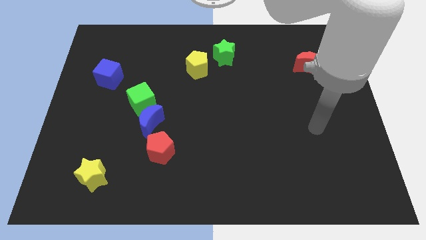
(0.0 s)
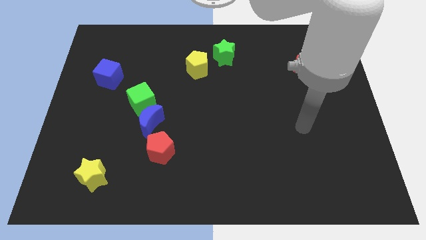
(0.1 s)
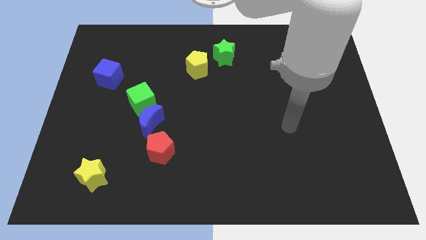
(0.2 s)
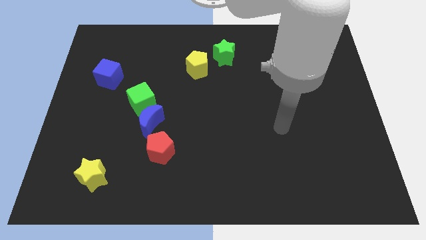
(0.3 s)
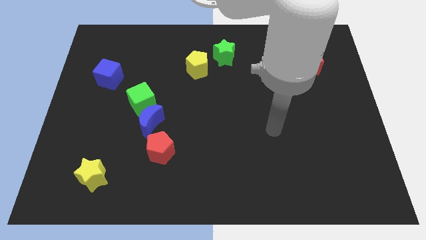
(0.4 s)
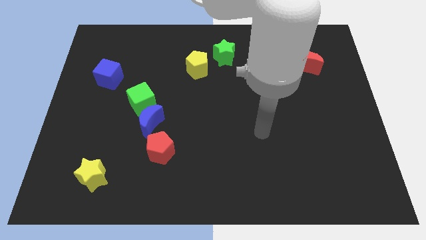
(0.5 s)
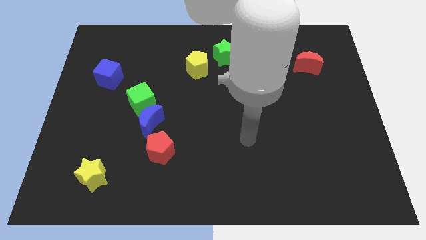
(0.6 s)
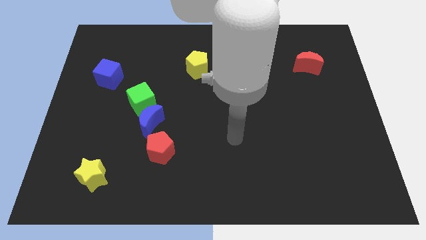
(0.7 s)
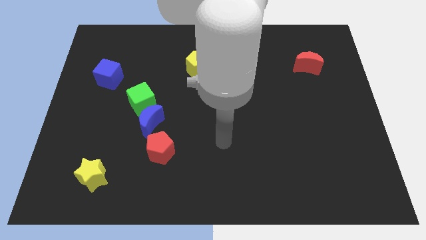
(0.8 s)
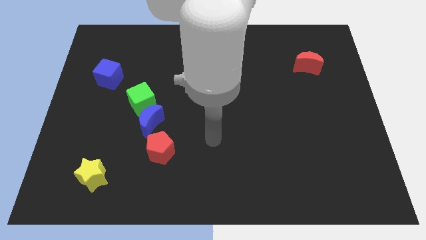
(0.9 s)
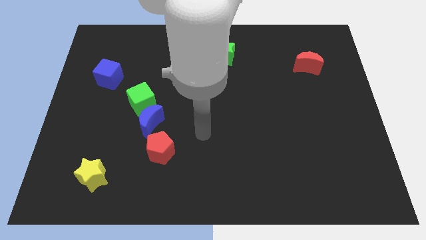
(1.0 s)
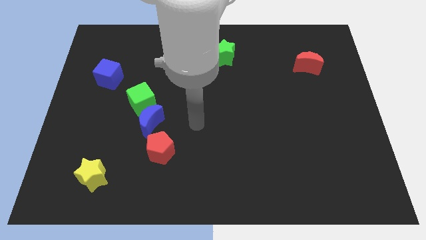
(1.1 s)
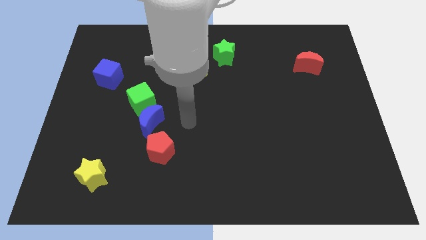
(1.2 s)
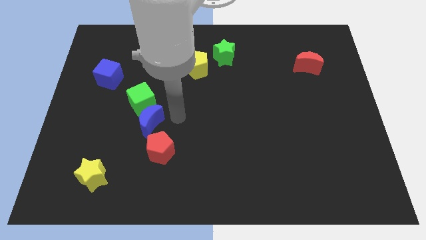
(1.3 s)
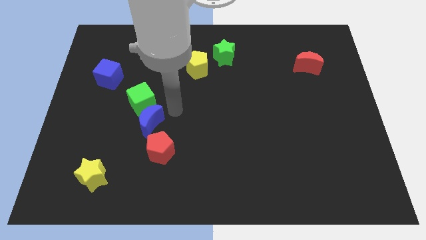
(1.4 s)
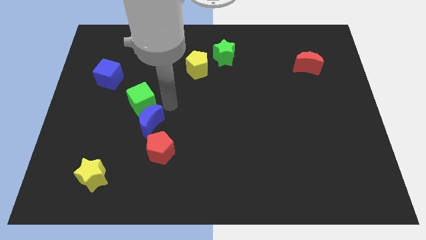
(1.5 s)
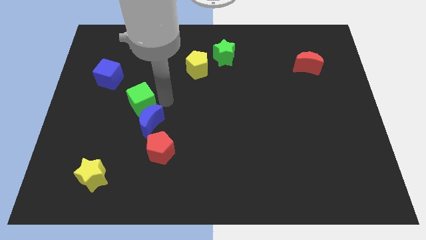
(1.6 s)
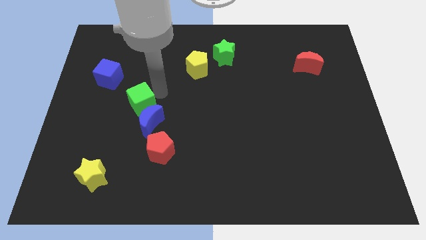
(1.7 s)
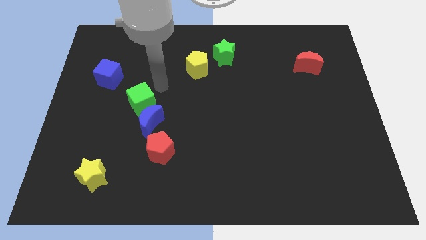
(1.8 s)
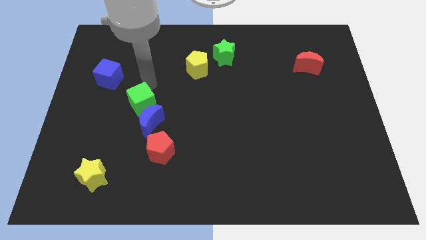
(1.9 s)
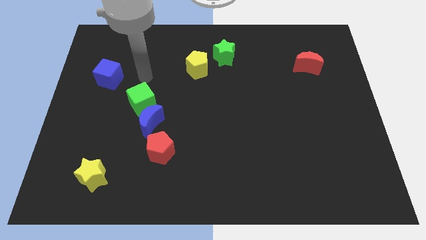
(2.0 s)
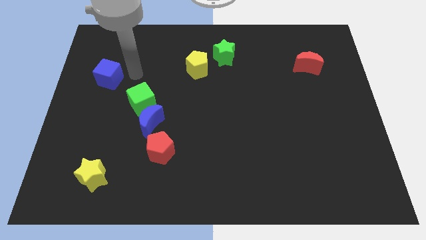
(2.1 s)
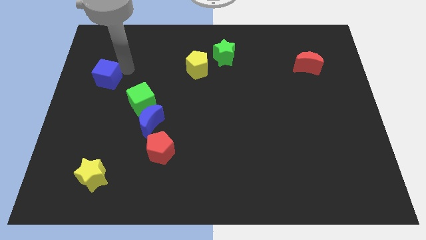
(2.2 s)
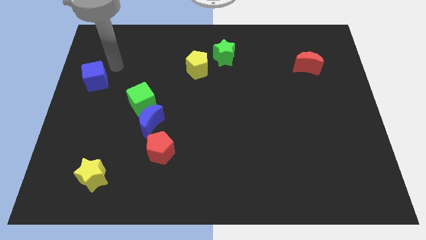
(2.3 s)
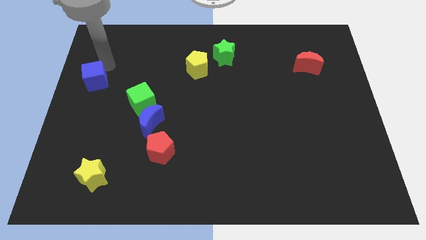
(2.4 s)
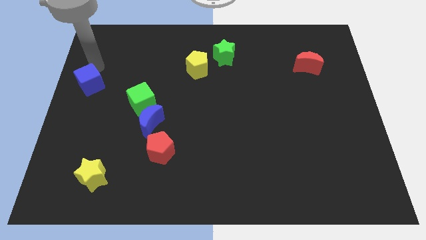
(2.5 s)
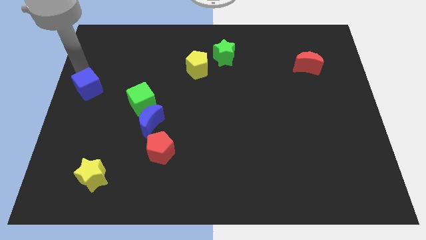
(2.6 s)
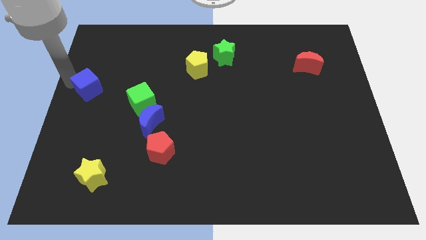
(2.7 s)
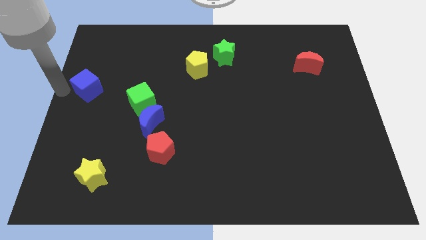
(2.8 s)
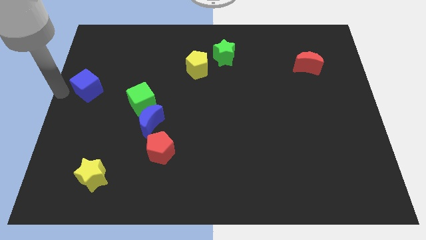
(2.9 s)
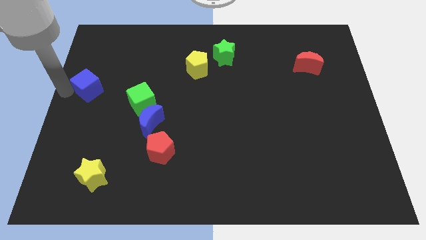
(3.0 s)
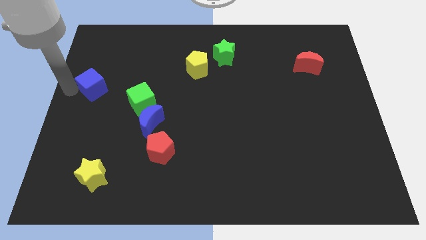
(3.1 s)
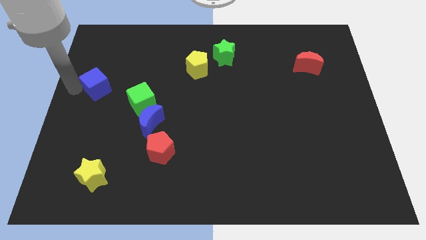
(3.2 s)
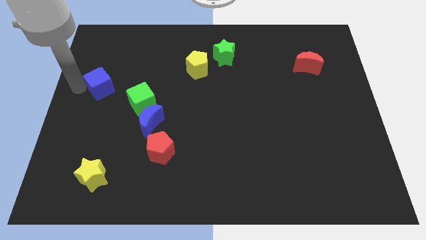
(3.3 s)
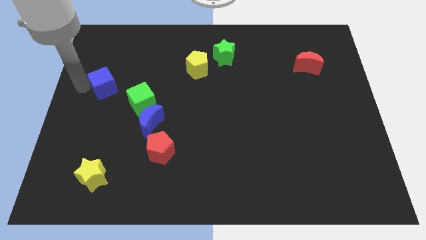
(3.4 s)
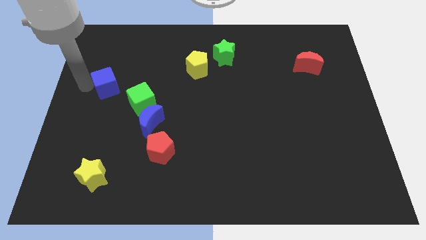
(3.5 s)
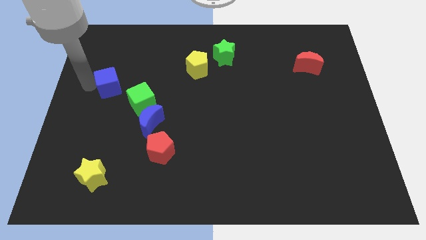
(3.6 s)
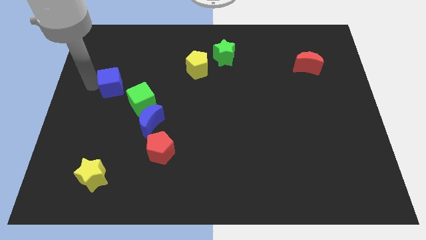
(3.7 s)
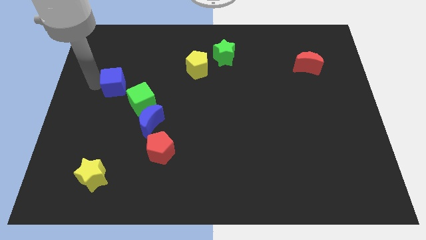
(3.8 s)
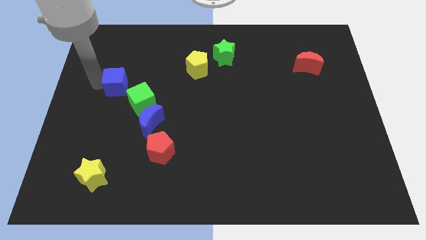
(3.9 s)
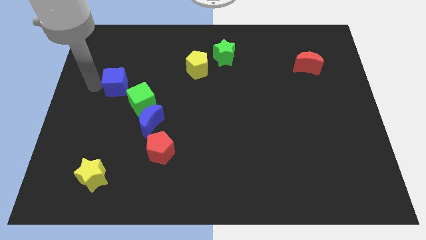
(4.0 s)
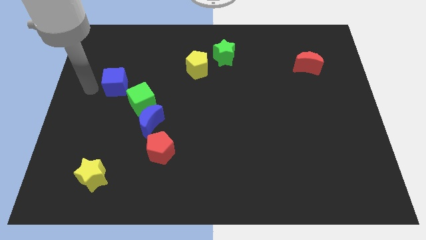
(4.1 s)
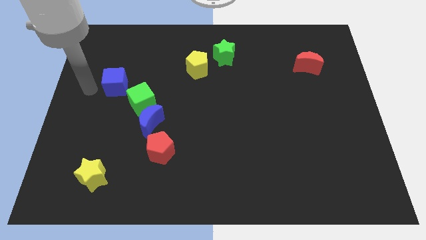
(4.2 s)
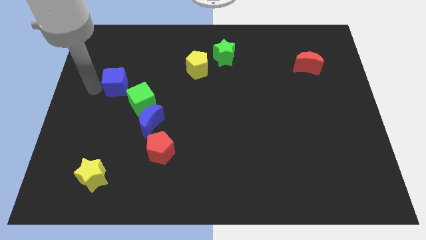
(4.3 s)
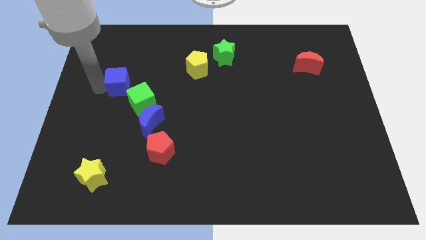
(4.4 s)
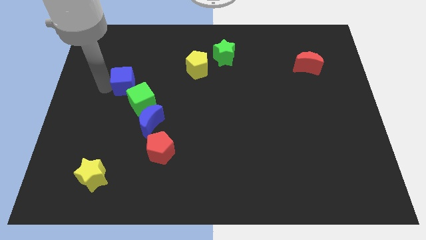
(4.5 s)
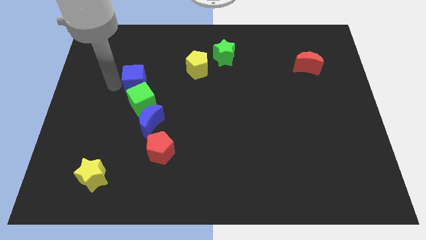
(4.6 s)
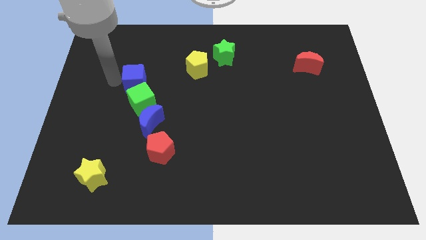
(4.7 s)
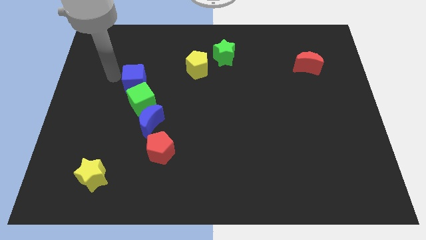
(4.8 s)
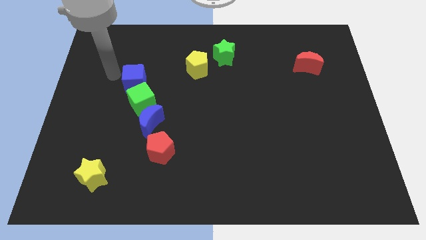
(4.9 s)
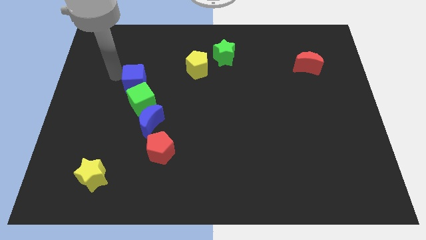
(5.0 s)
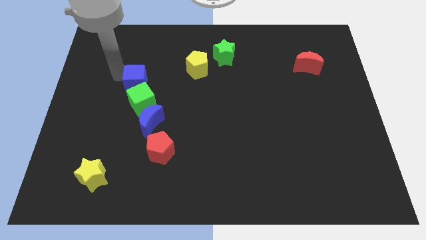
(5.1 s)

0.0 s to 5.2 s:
slide the blue cube to the top side of the blue moon

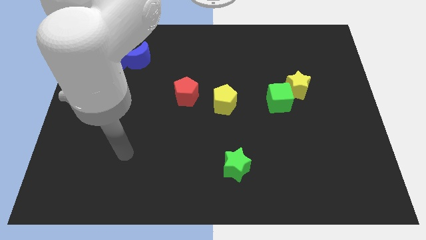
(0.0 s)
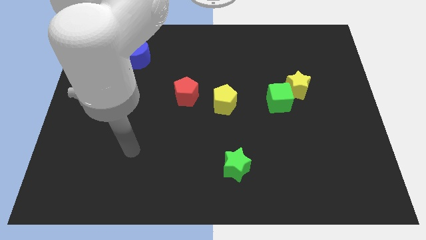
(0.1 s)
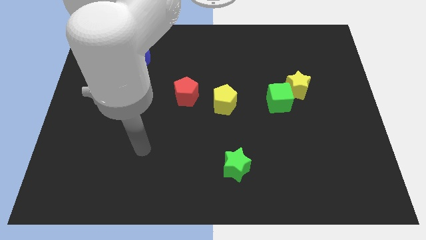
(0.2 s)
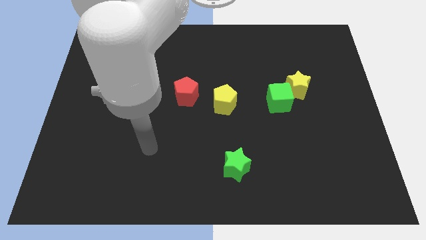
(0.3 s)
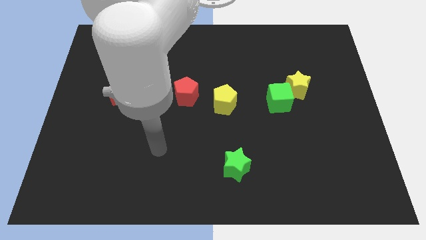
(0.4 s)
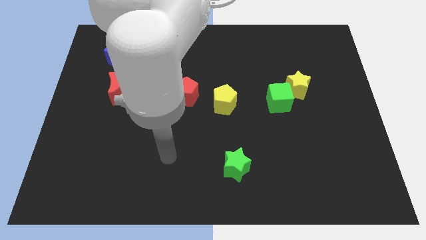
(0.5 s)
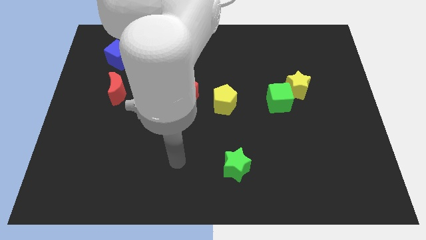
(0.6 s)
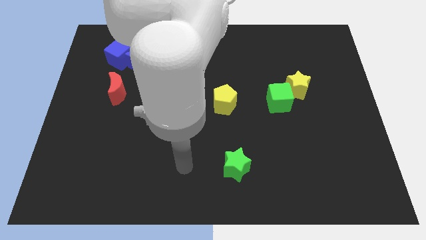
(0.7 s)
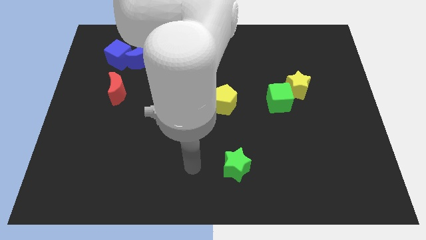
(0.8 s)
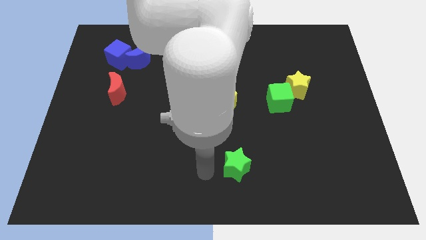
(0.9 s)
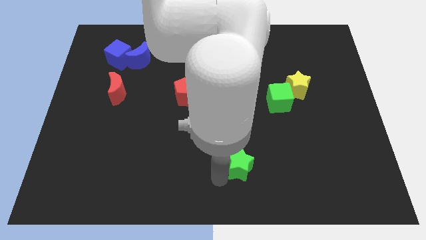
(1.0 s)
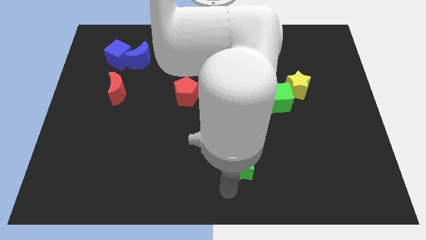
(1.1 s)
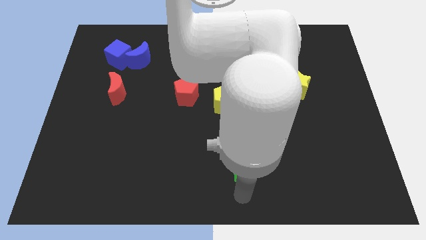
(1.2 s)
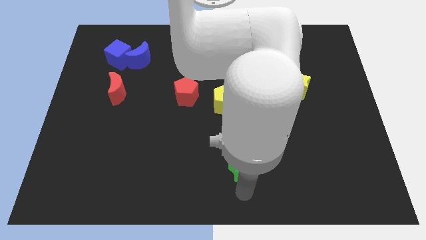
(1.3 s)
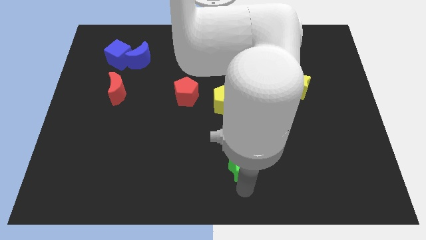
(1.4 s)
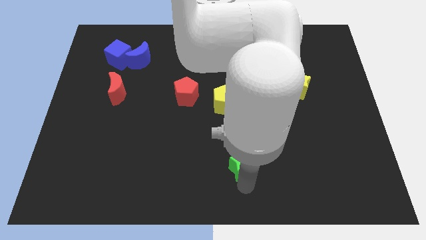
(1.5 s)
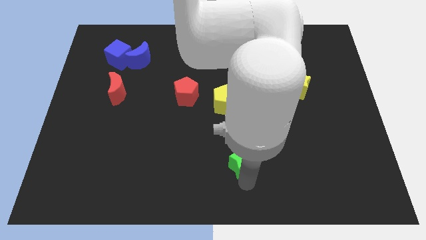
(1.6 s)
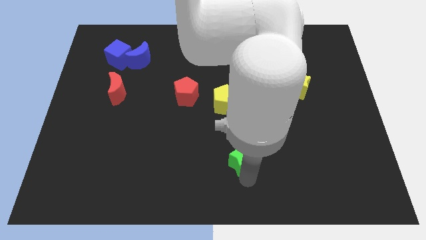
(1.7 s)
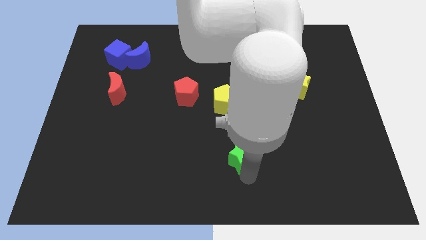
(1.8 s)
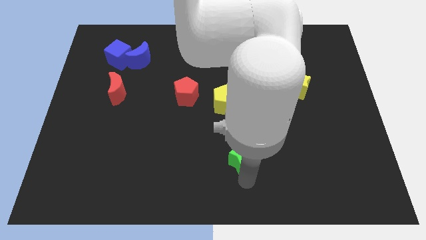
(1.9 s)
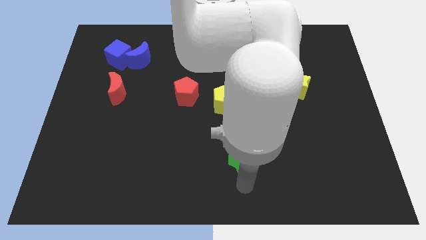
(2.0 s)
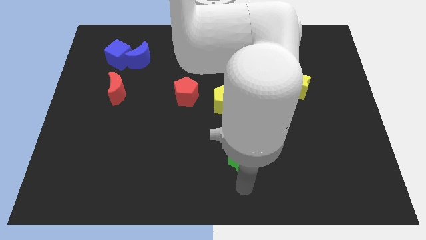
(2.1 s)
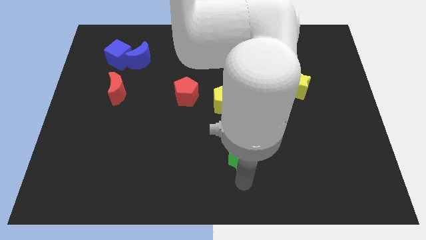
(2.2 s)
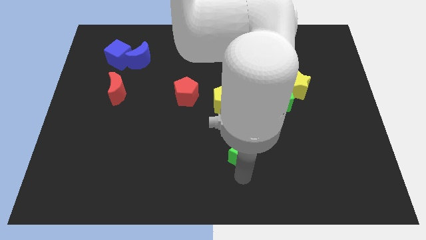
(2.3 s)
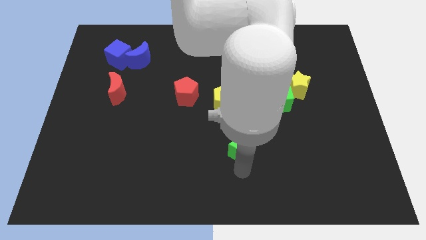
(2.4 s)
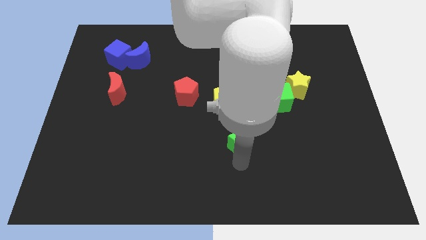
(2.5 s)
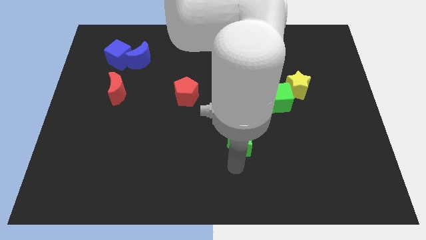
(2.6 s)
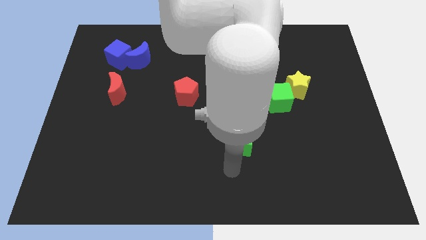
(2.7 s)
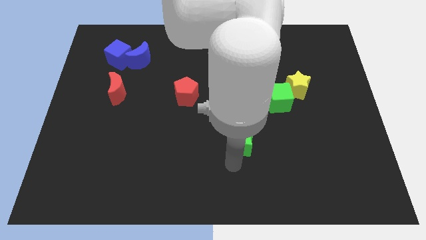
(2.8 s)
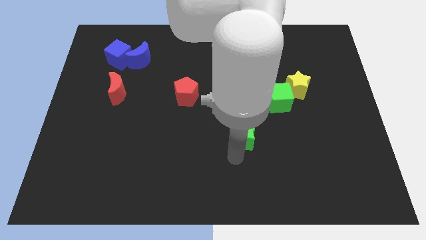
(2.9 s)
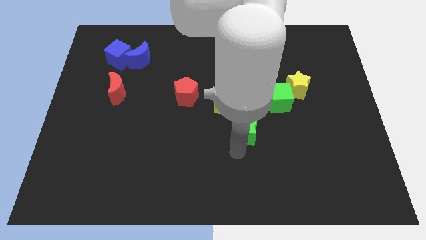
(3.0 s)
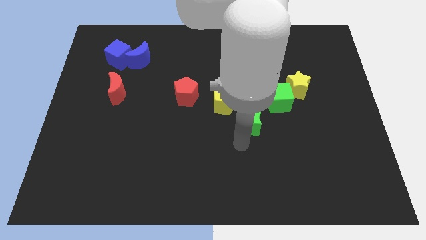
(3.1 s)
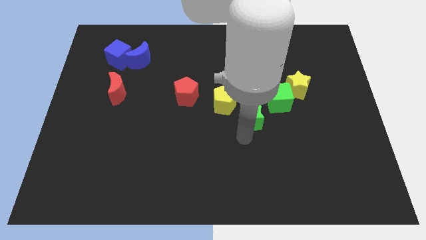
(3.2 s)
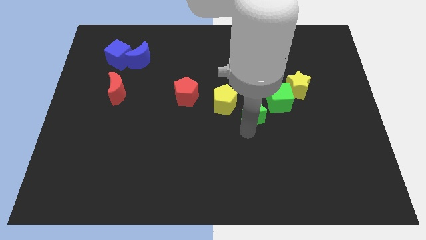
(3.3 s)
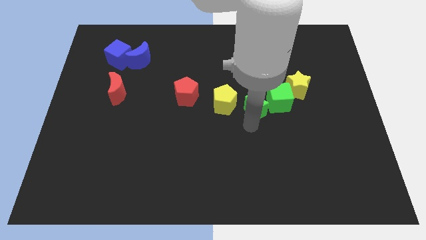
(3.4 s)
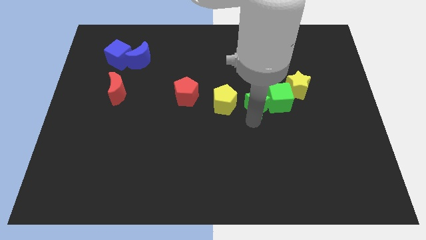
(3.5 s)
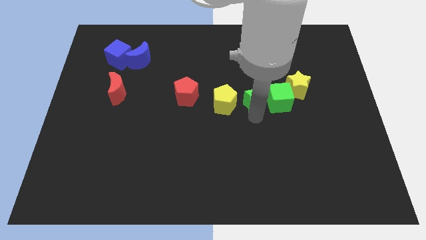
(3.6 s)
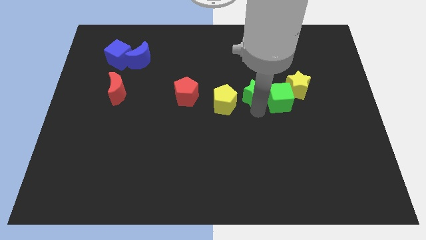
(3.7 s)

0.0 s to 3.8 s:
push the green star to the right of the red pentagon
